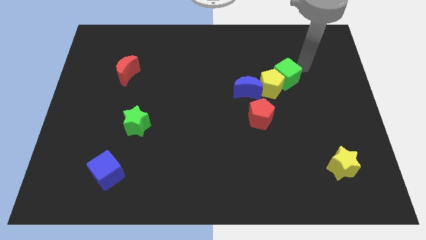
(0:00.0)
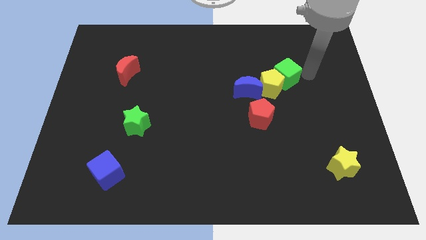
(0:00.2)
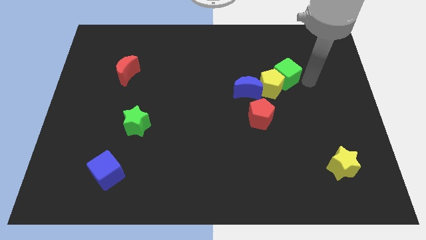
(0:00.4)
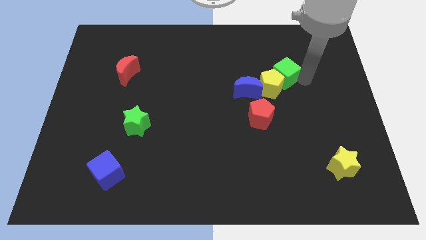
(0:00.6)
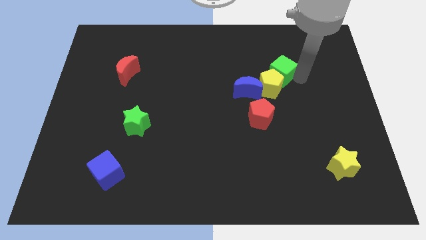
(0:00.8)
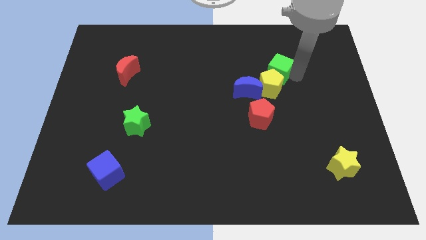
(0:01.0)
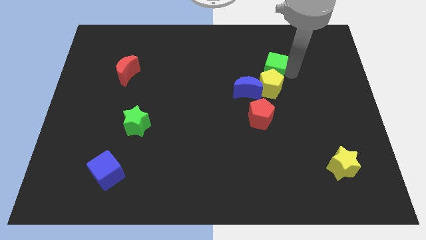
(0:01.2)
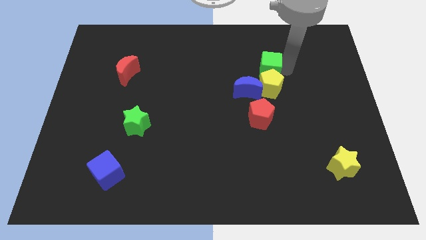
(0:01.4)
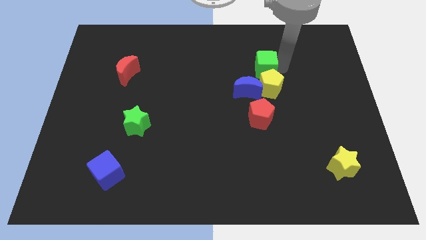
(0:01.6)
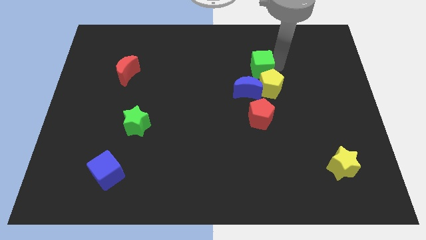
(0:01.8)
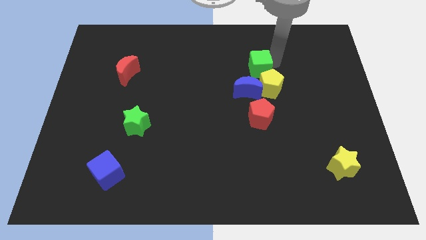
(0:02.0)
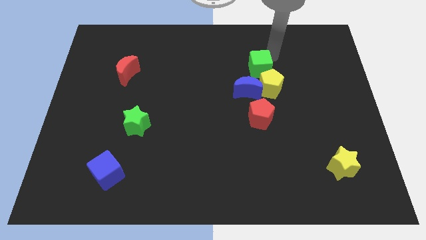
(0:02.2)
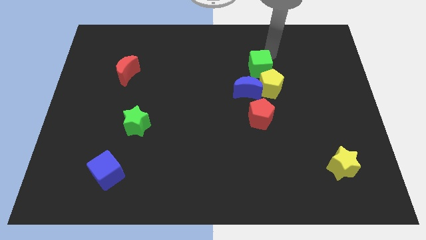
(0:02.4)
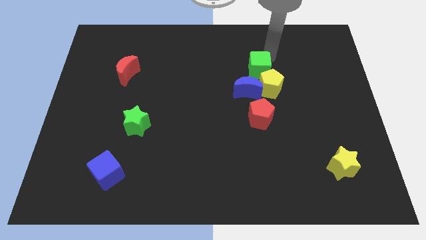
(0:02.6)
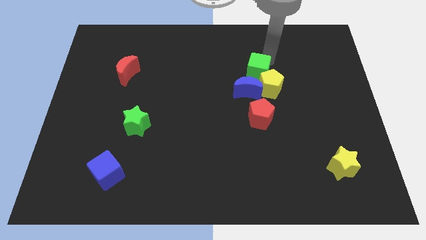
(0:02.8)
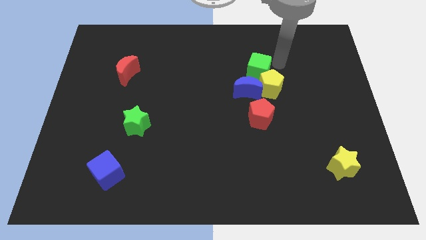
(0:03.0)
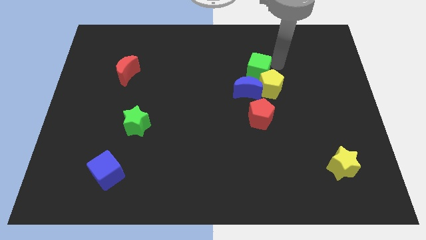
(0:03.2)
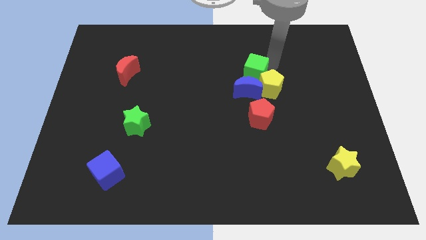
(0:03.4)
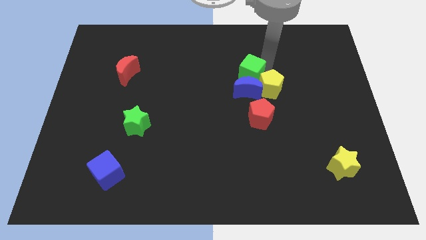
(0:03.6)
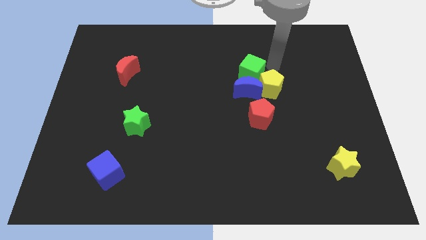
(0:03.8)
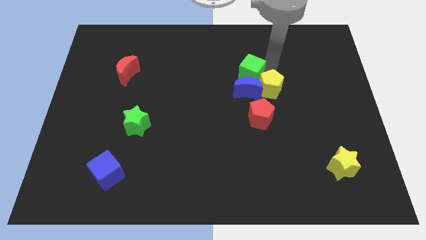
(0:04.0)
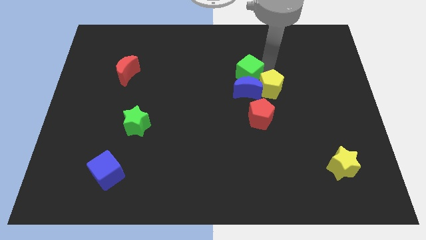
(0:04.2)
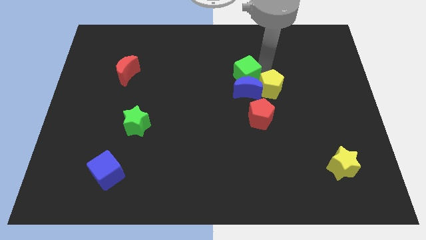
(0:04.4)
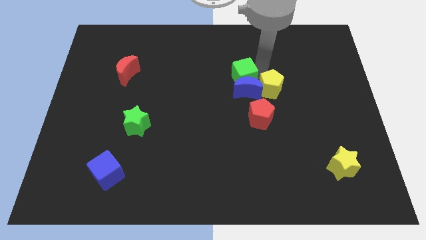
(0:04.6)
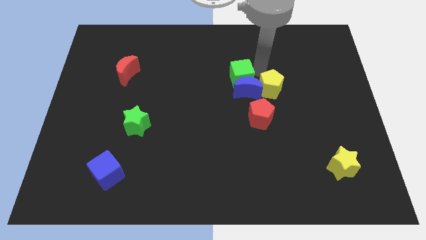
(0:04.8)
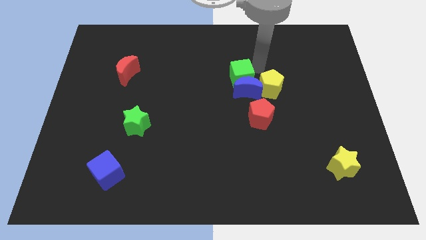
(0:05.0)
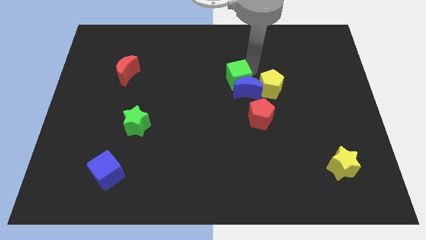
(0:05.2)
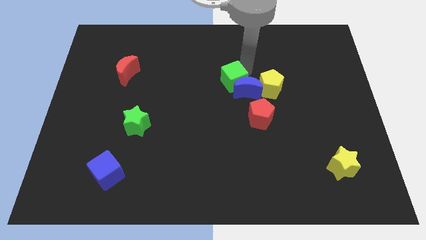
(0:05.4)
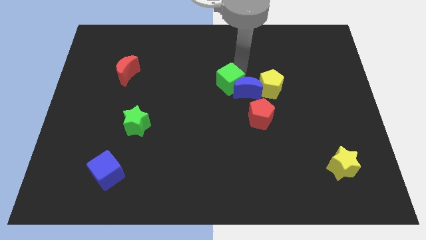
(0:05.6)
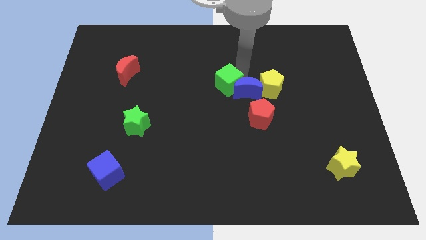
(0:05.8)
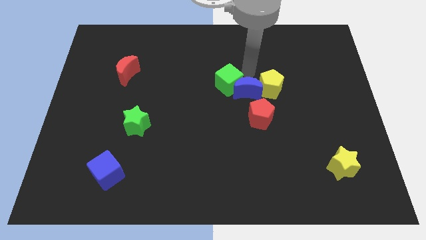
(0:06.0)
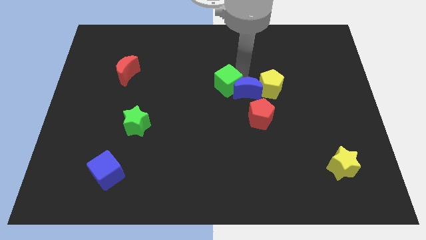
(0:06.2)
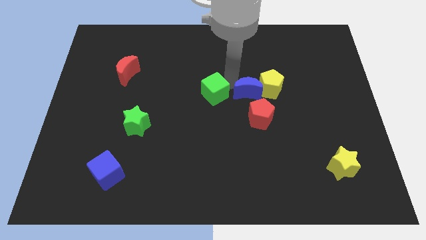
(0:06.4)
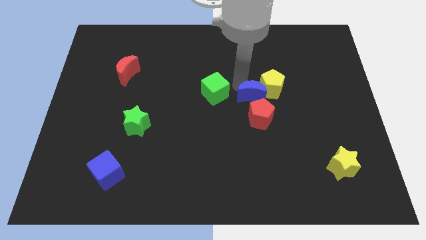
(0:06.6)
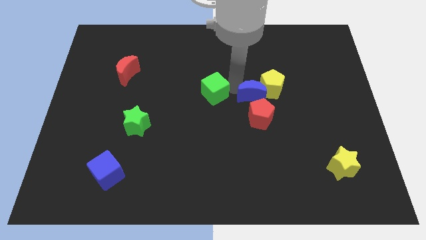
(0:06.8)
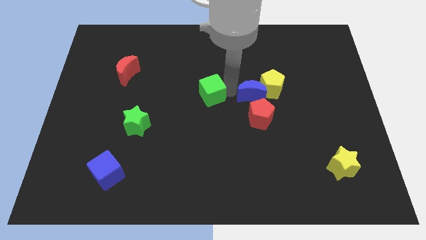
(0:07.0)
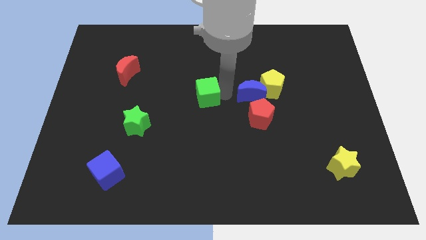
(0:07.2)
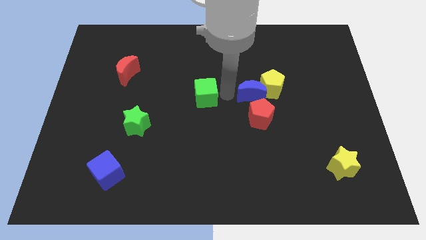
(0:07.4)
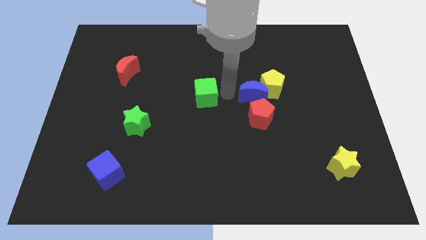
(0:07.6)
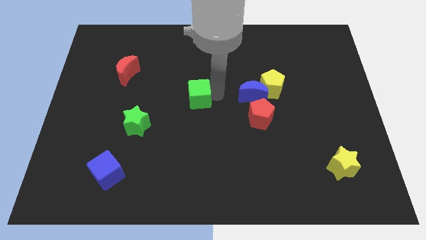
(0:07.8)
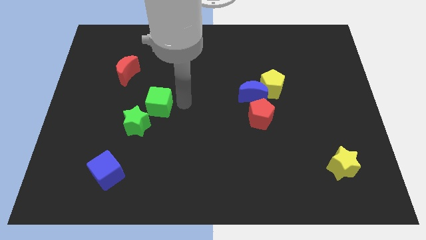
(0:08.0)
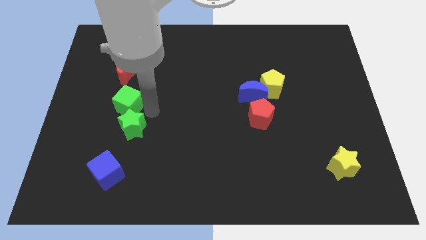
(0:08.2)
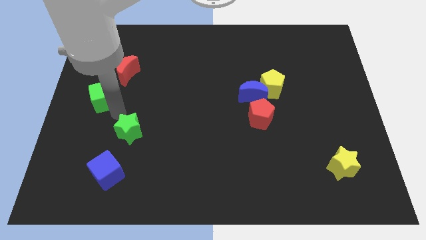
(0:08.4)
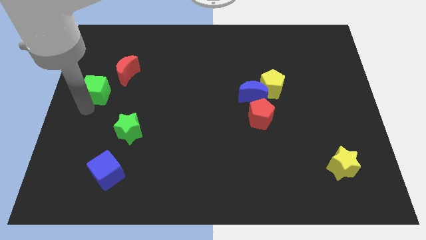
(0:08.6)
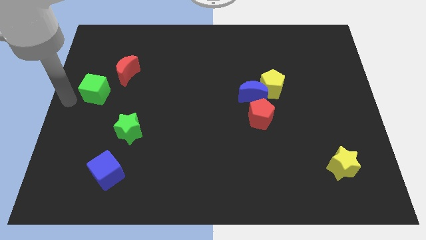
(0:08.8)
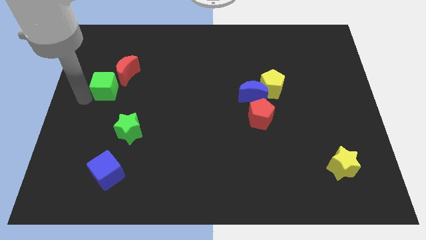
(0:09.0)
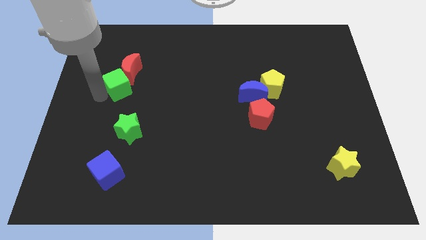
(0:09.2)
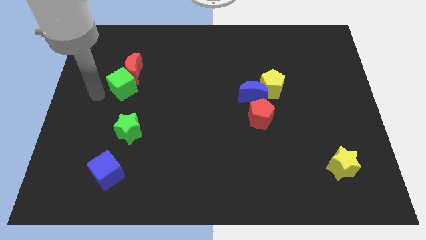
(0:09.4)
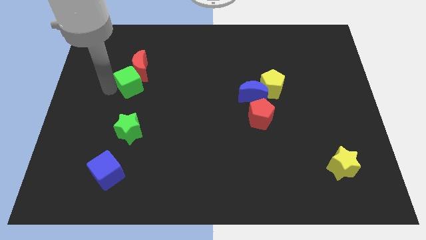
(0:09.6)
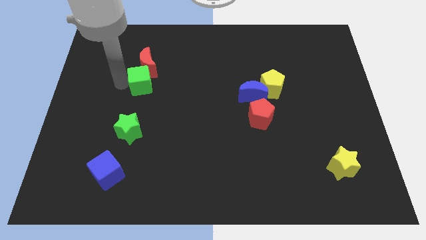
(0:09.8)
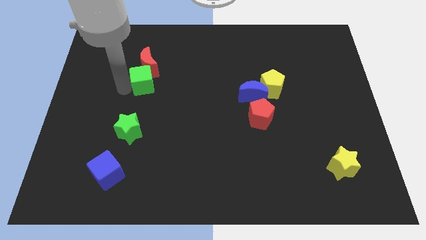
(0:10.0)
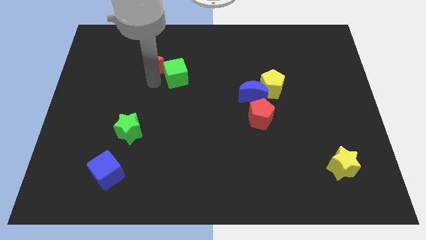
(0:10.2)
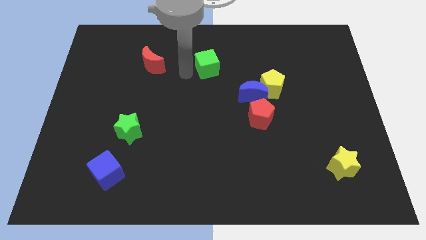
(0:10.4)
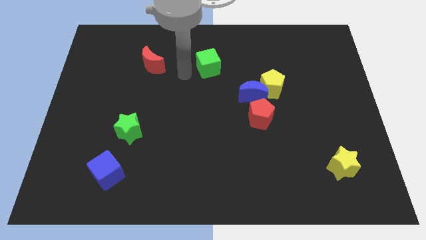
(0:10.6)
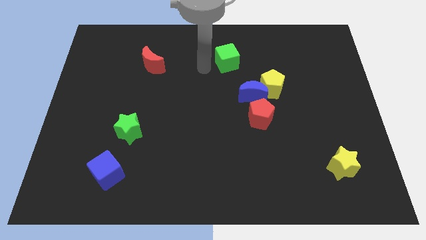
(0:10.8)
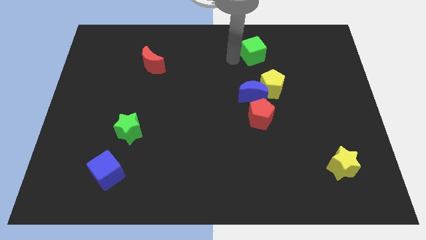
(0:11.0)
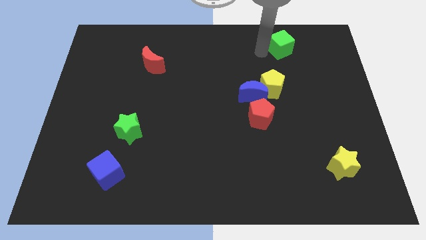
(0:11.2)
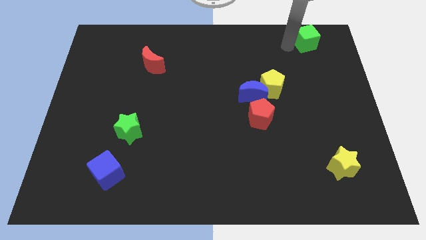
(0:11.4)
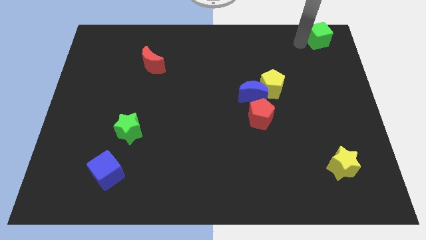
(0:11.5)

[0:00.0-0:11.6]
push the green cube to the upper right corner

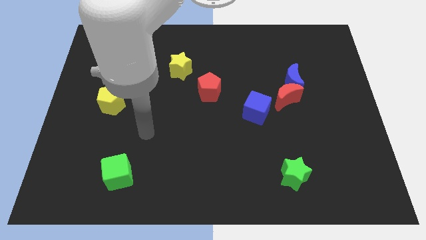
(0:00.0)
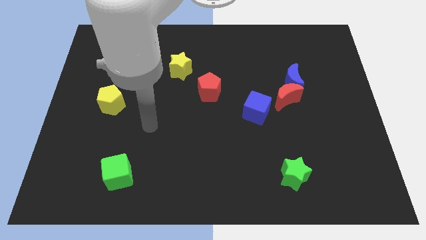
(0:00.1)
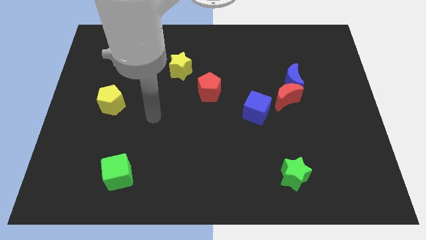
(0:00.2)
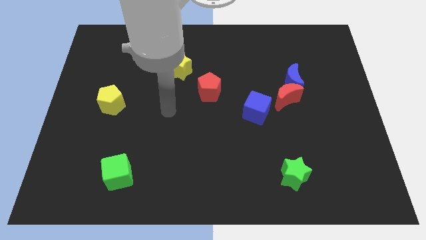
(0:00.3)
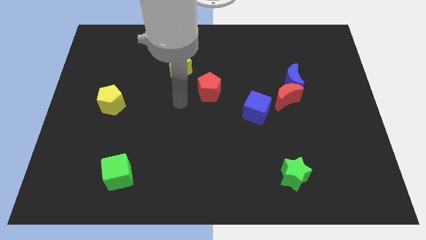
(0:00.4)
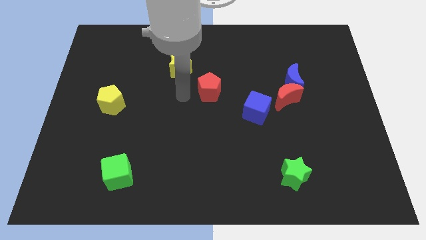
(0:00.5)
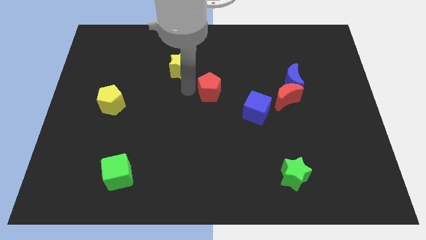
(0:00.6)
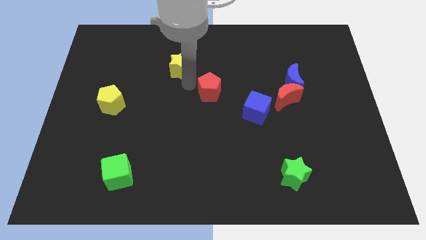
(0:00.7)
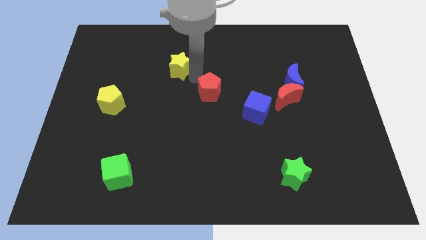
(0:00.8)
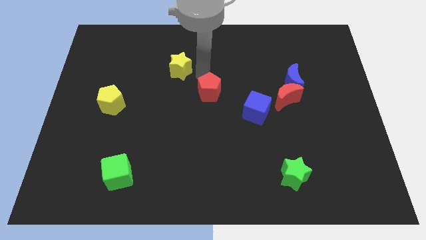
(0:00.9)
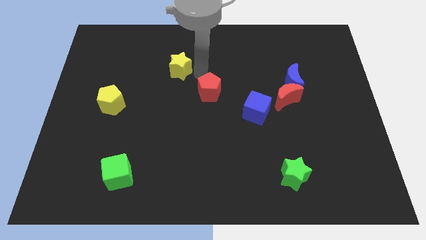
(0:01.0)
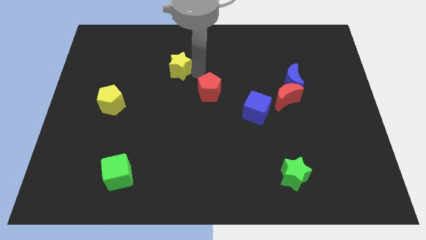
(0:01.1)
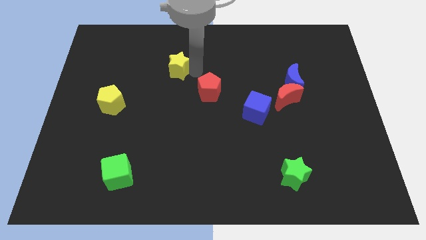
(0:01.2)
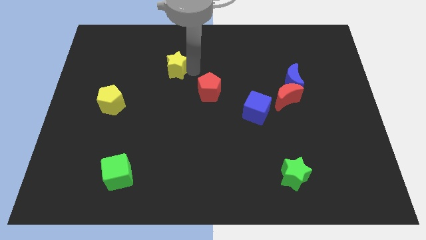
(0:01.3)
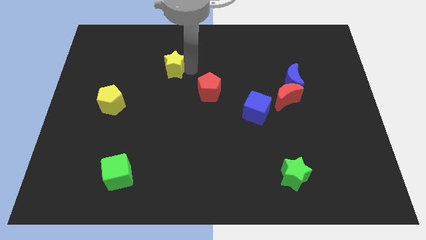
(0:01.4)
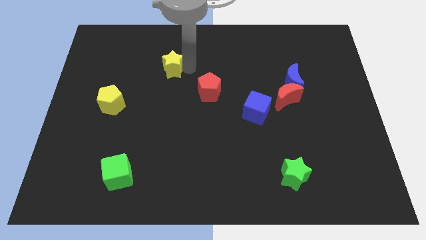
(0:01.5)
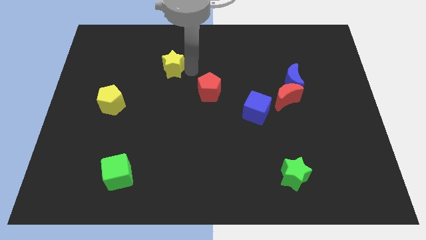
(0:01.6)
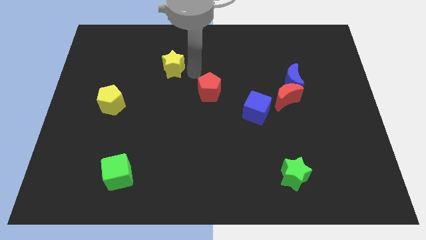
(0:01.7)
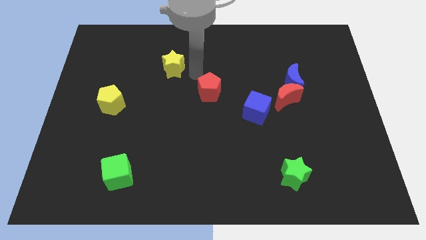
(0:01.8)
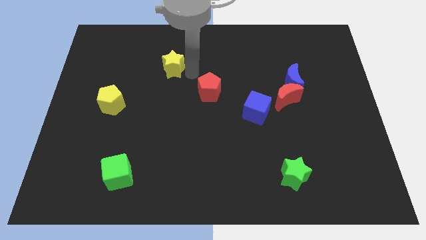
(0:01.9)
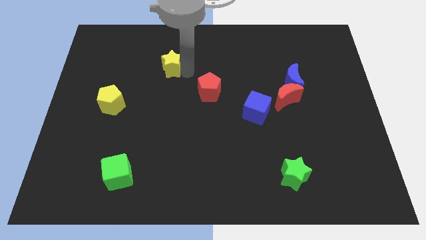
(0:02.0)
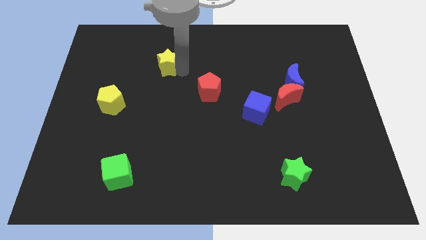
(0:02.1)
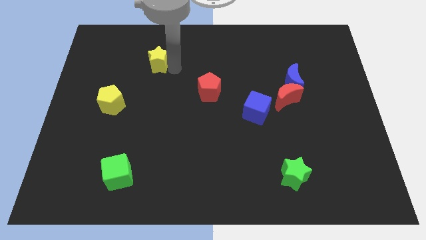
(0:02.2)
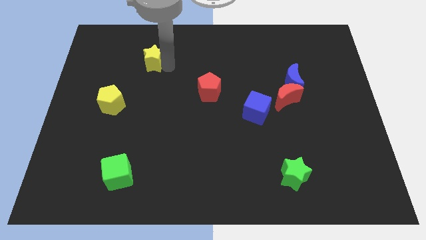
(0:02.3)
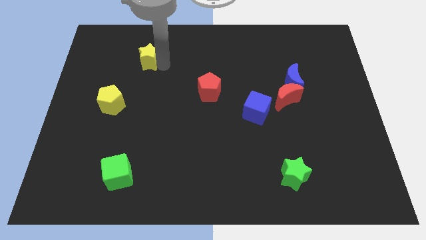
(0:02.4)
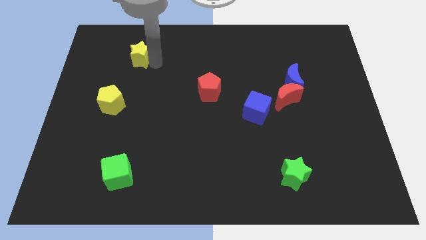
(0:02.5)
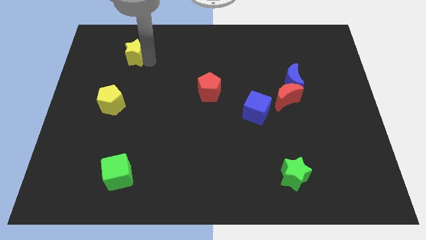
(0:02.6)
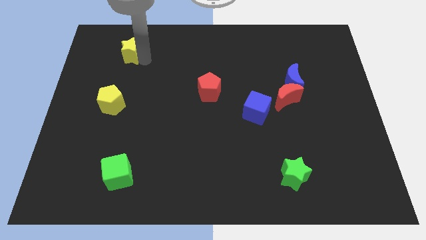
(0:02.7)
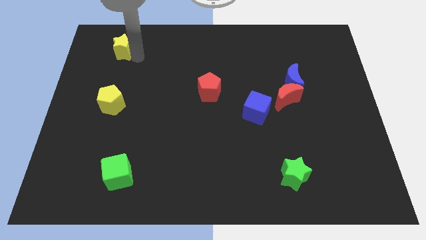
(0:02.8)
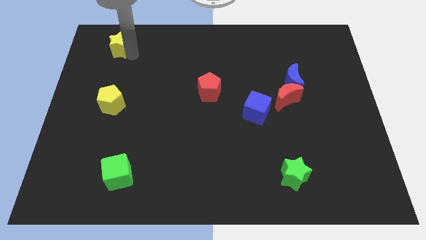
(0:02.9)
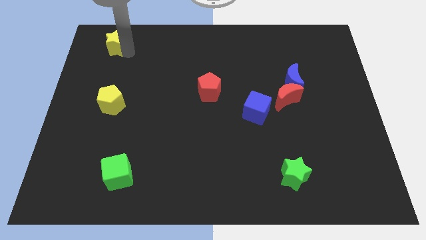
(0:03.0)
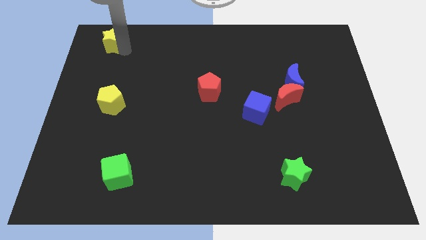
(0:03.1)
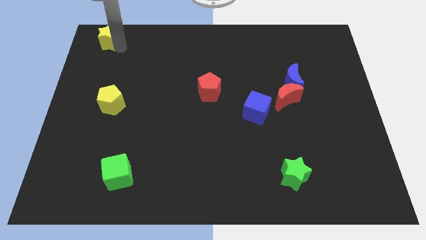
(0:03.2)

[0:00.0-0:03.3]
move the yellow star to the upper left corner
